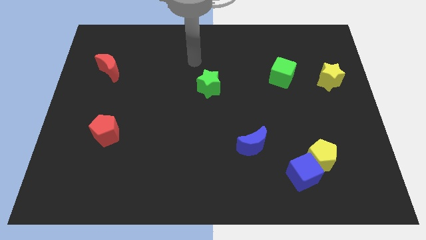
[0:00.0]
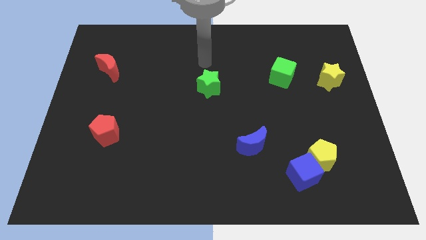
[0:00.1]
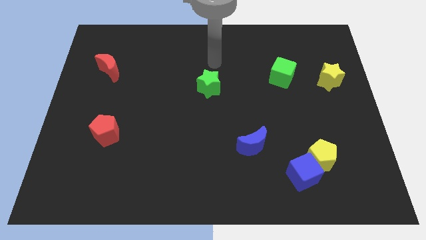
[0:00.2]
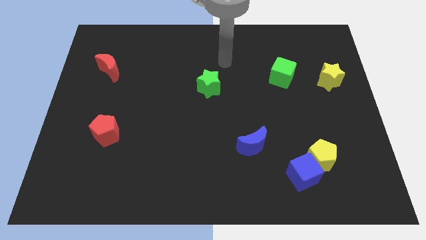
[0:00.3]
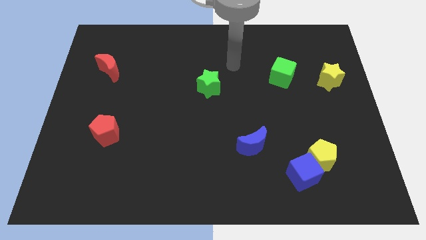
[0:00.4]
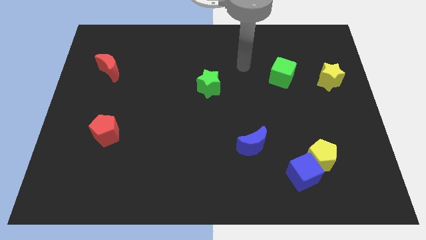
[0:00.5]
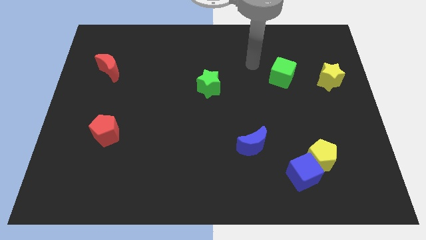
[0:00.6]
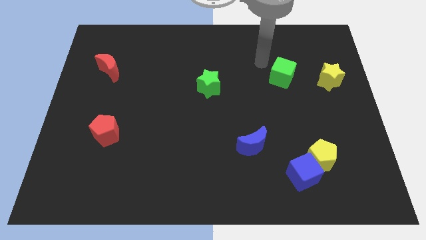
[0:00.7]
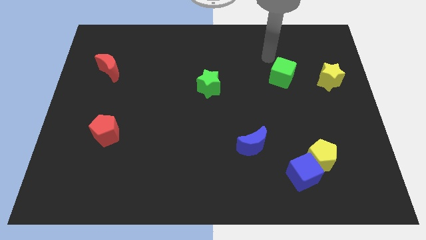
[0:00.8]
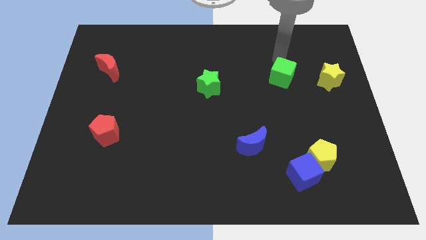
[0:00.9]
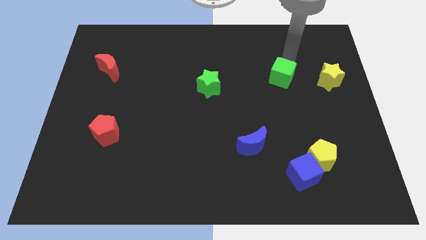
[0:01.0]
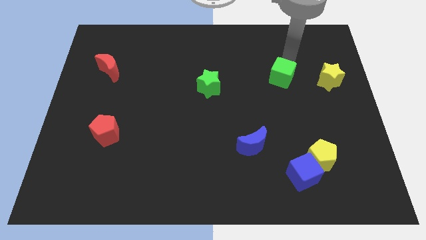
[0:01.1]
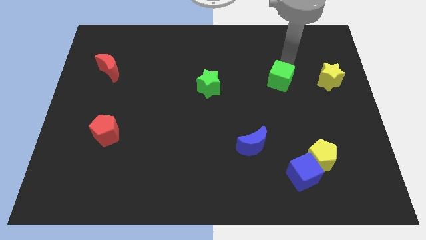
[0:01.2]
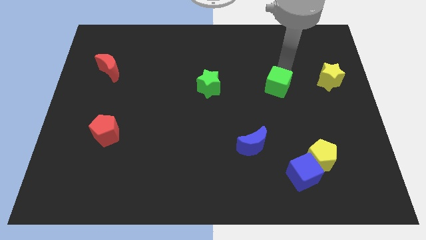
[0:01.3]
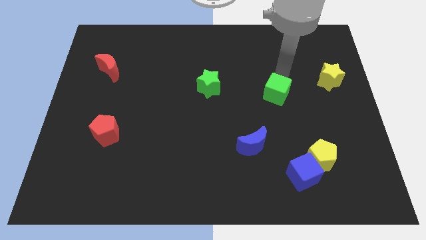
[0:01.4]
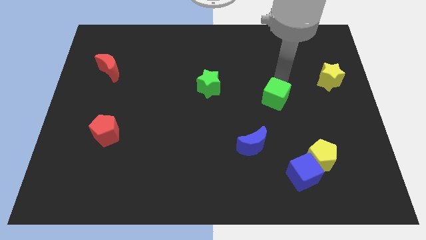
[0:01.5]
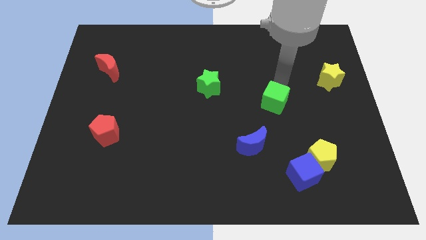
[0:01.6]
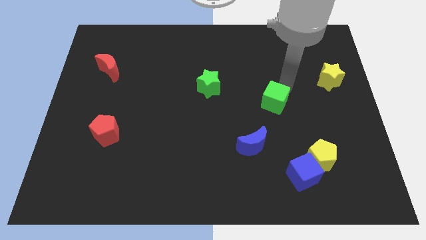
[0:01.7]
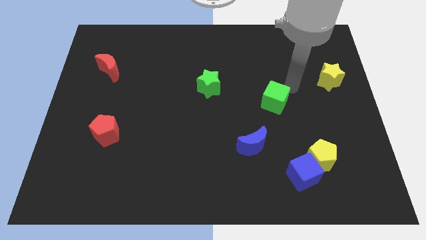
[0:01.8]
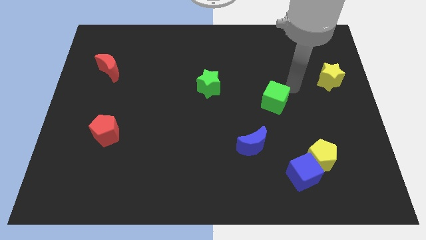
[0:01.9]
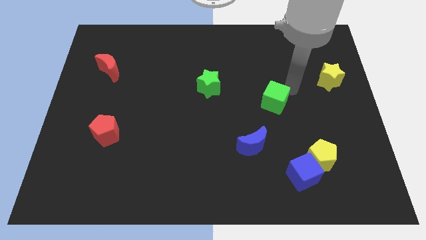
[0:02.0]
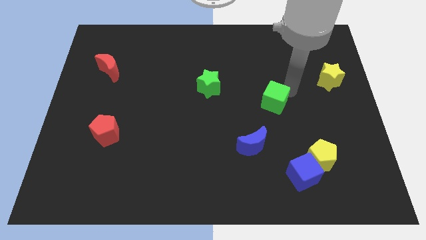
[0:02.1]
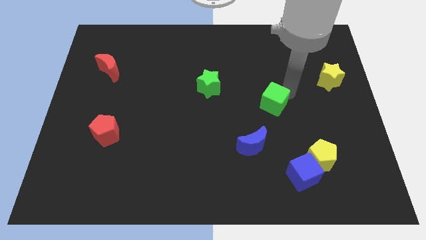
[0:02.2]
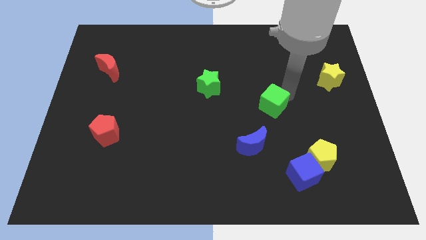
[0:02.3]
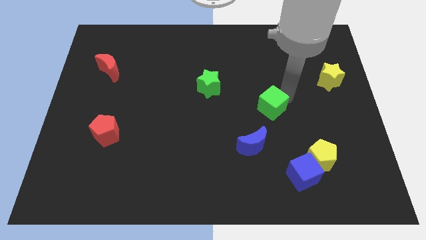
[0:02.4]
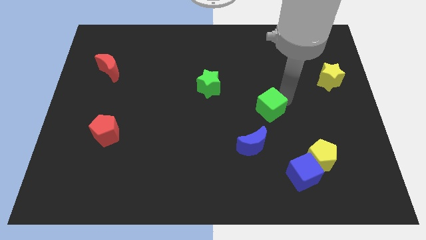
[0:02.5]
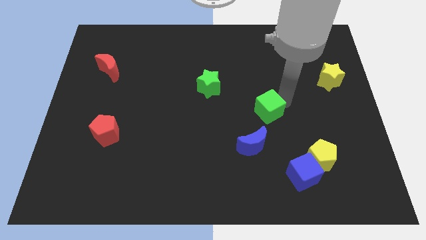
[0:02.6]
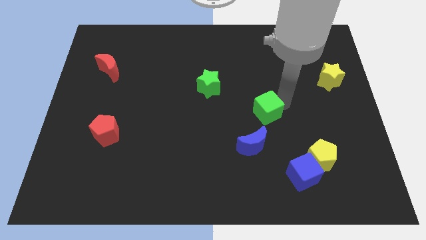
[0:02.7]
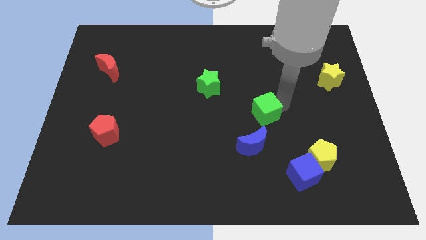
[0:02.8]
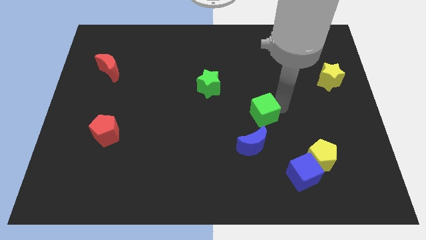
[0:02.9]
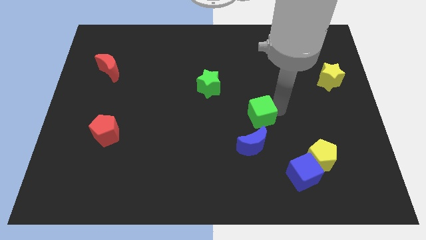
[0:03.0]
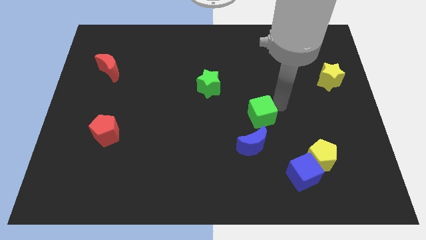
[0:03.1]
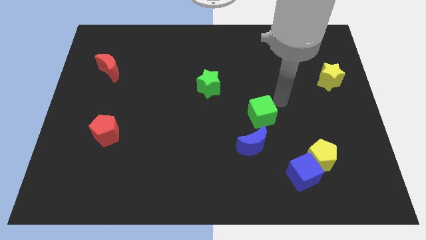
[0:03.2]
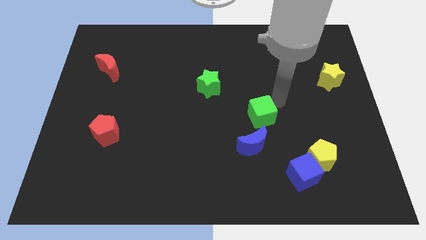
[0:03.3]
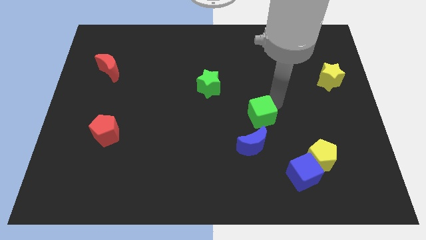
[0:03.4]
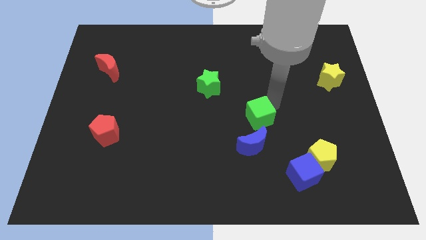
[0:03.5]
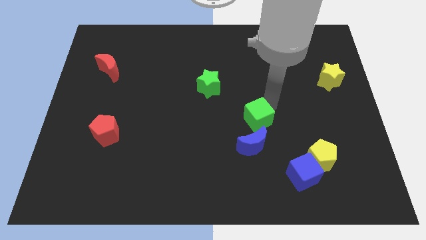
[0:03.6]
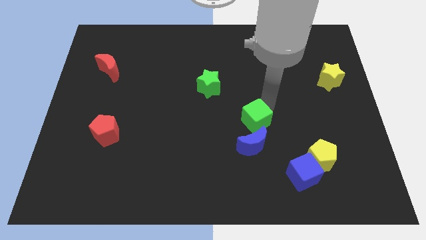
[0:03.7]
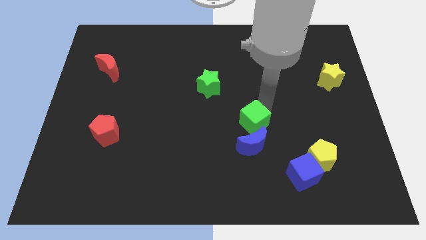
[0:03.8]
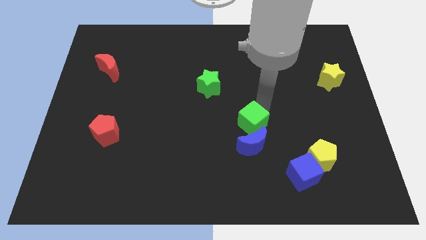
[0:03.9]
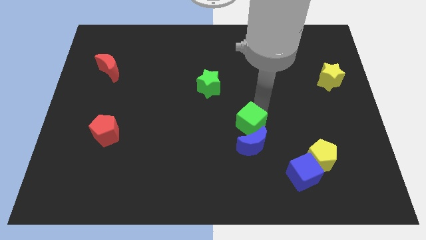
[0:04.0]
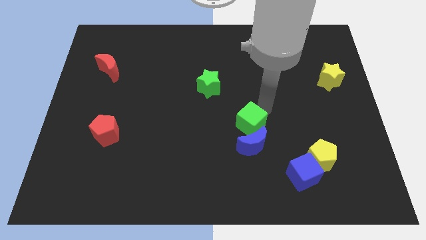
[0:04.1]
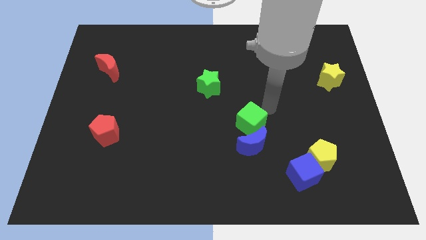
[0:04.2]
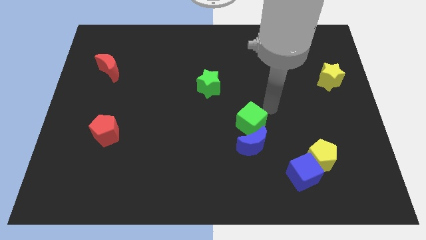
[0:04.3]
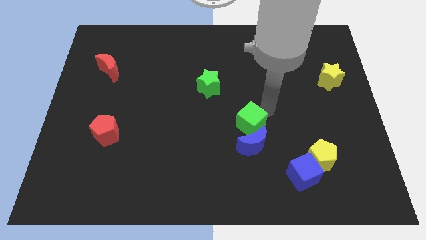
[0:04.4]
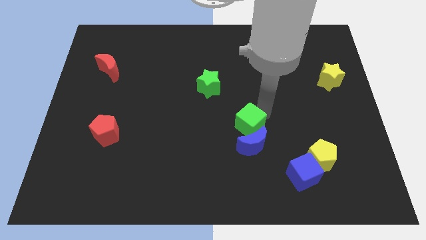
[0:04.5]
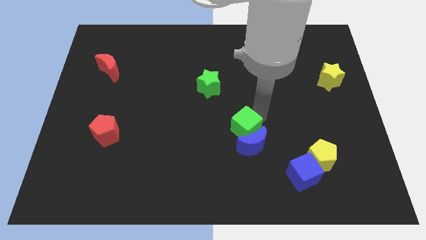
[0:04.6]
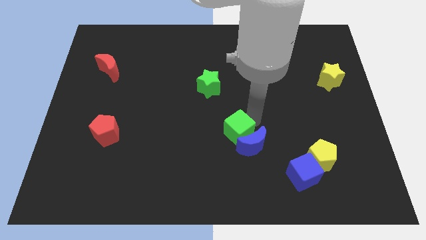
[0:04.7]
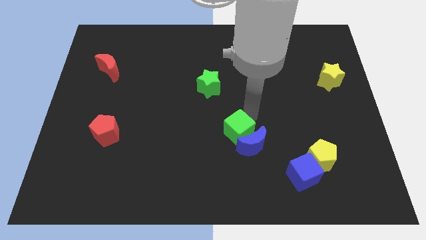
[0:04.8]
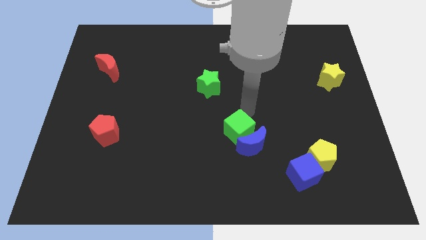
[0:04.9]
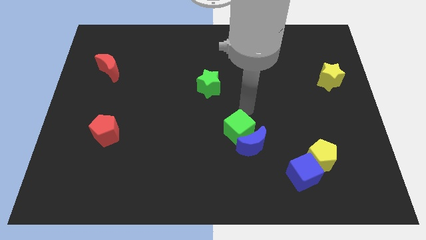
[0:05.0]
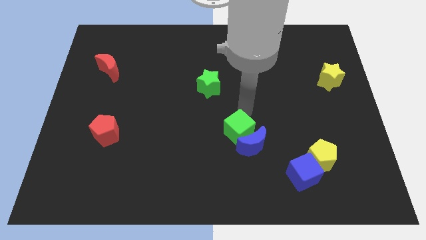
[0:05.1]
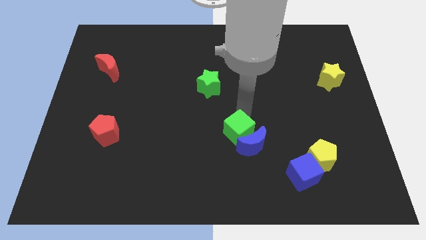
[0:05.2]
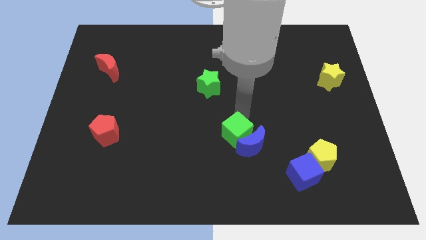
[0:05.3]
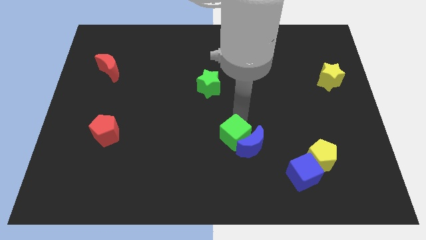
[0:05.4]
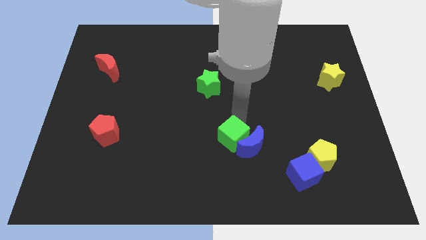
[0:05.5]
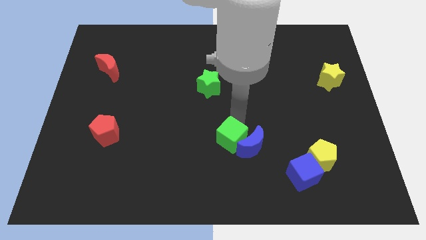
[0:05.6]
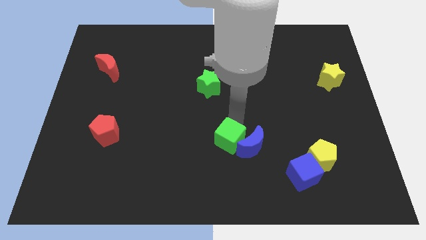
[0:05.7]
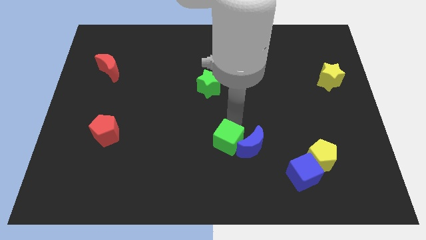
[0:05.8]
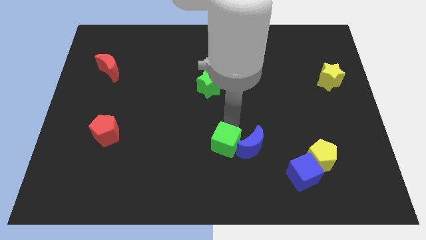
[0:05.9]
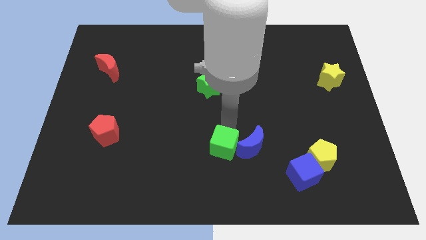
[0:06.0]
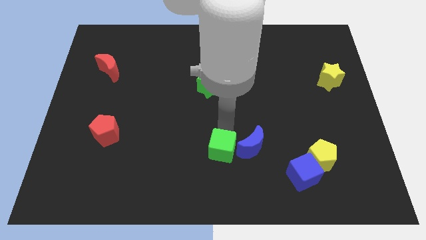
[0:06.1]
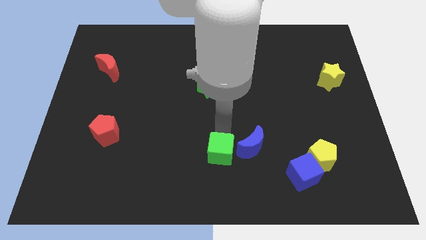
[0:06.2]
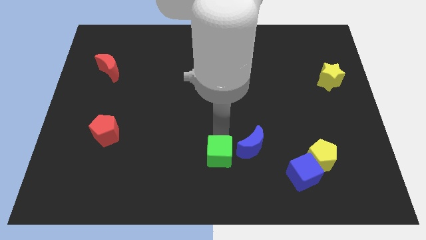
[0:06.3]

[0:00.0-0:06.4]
slide the green cube to the bottom
